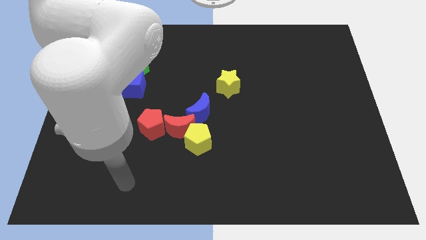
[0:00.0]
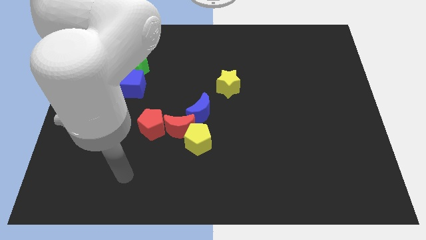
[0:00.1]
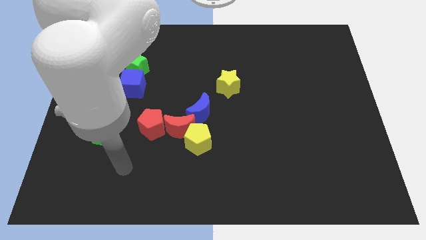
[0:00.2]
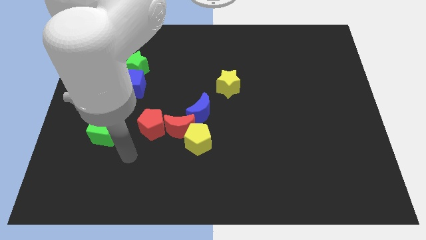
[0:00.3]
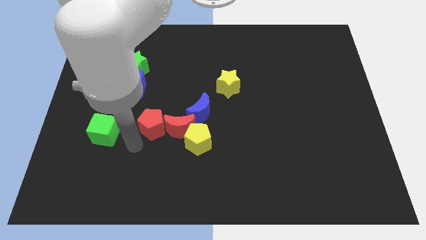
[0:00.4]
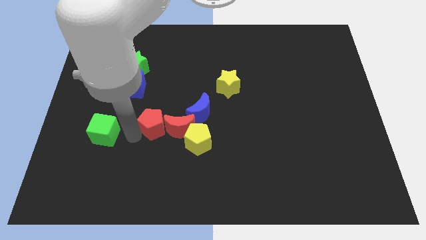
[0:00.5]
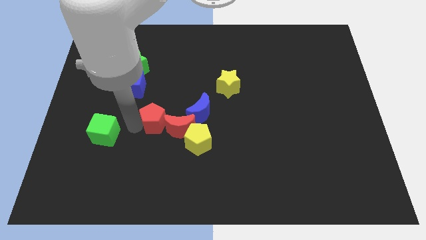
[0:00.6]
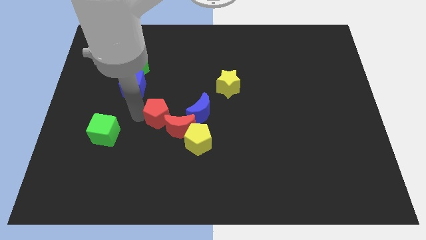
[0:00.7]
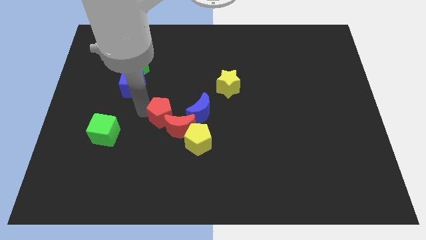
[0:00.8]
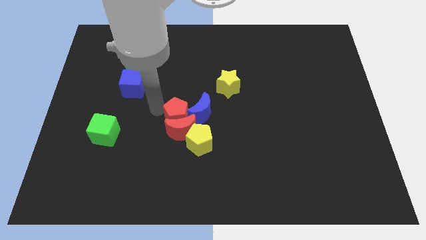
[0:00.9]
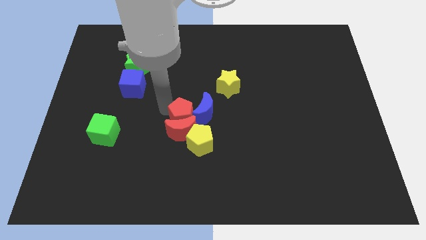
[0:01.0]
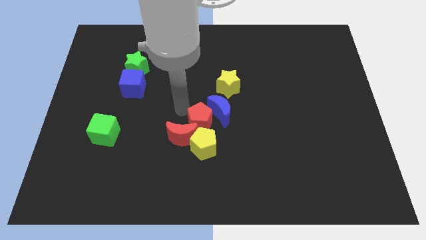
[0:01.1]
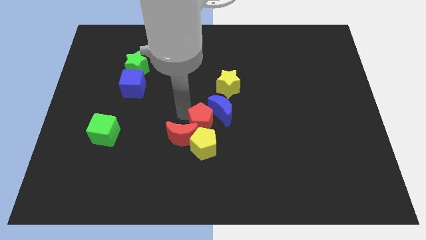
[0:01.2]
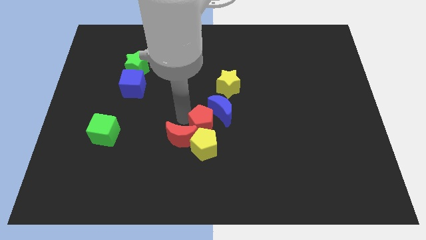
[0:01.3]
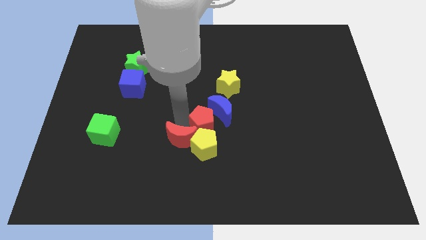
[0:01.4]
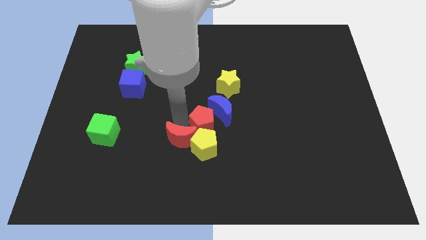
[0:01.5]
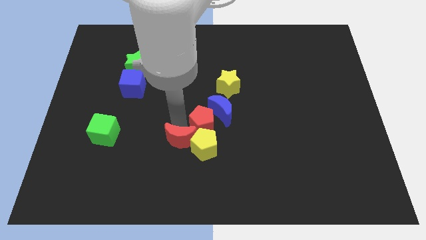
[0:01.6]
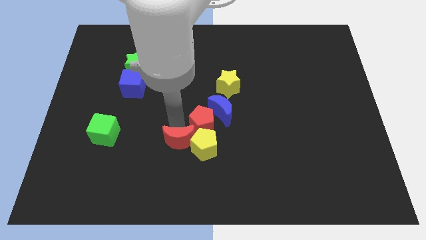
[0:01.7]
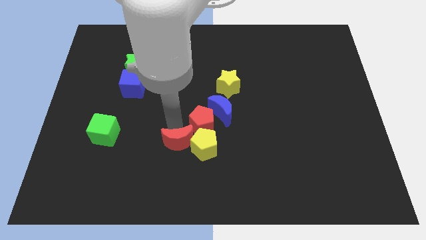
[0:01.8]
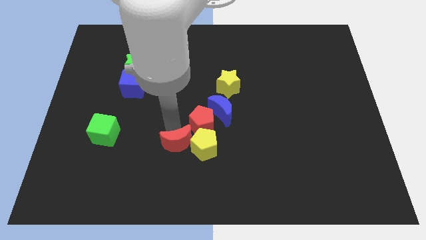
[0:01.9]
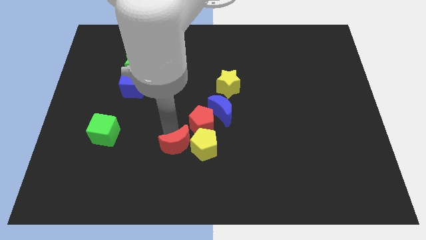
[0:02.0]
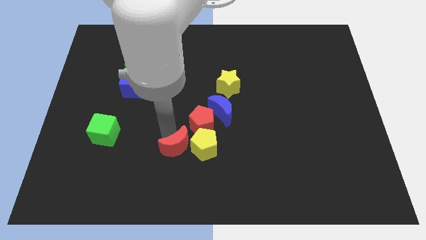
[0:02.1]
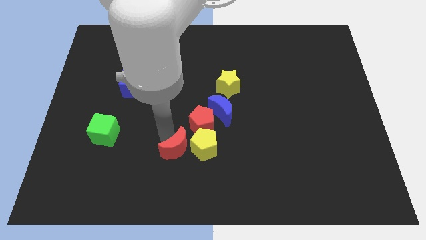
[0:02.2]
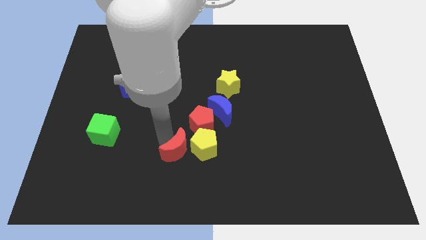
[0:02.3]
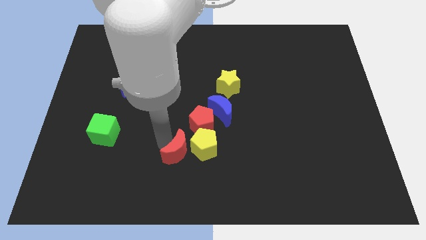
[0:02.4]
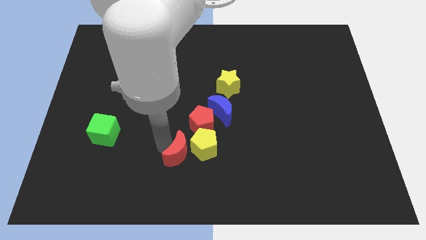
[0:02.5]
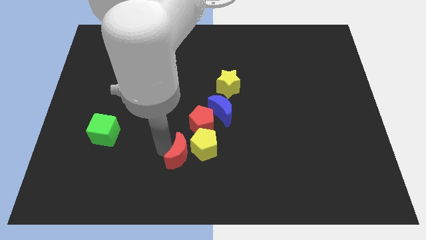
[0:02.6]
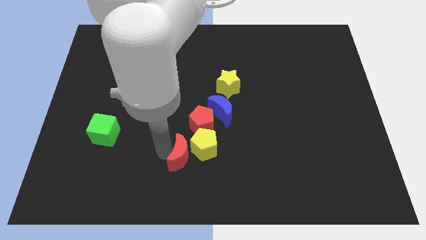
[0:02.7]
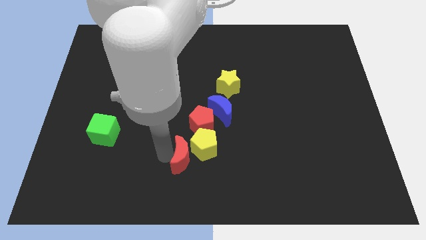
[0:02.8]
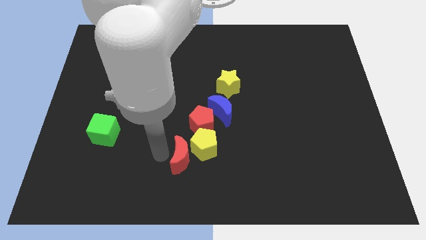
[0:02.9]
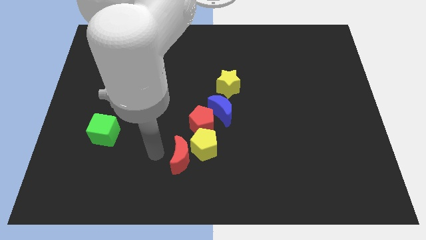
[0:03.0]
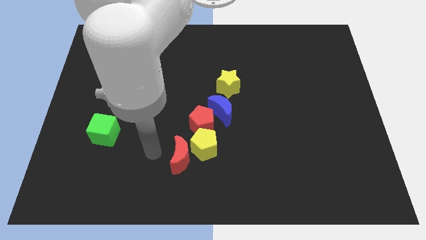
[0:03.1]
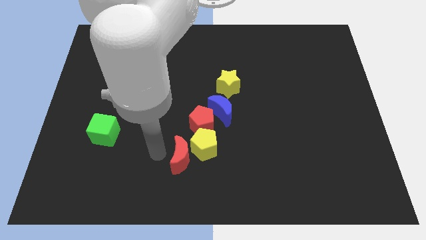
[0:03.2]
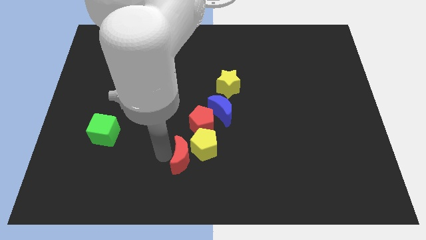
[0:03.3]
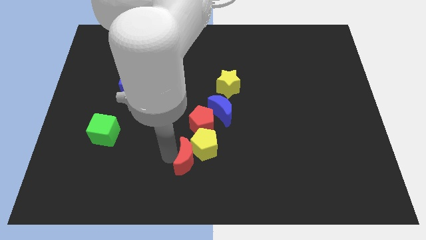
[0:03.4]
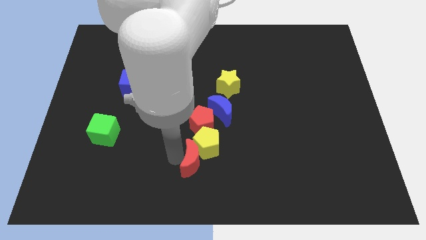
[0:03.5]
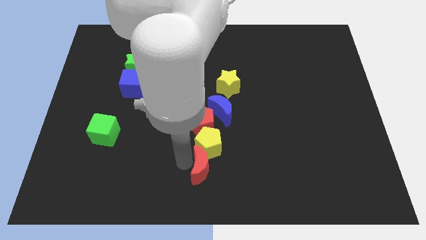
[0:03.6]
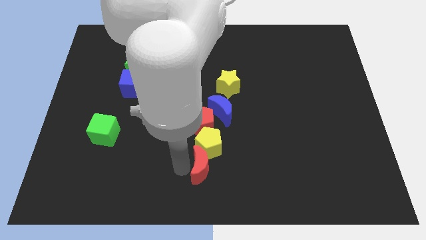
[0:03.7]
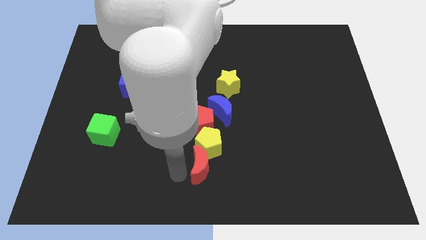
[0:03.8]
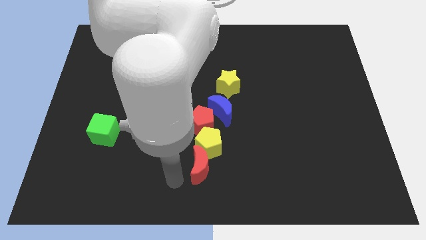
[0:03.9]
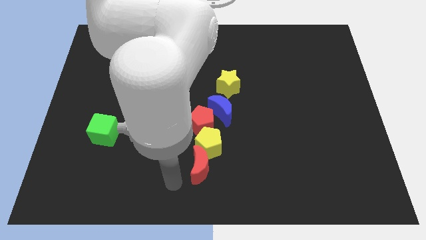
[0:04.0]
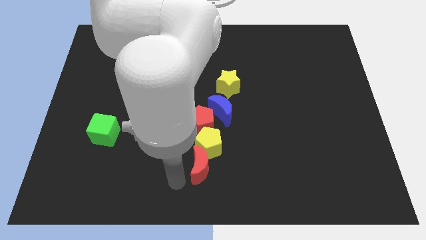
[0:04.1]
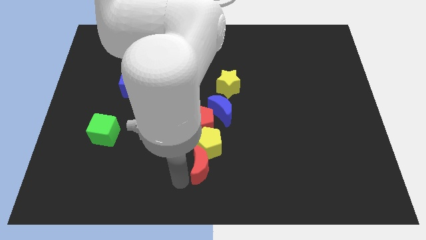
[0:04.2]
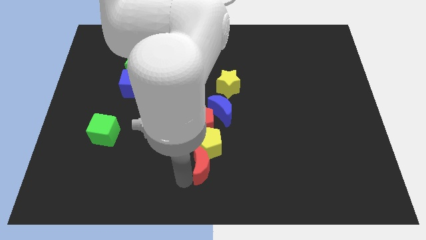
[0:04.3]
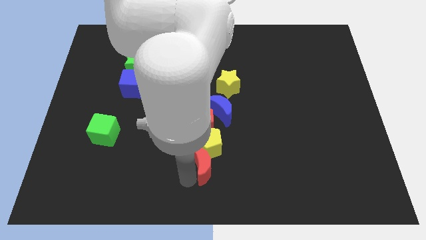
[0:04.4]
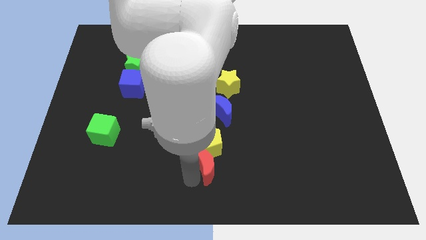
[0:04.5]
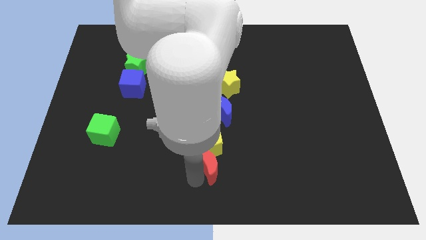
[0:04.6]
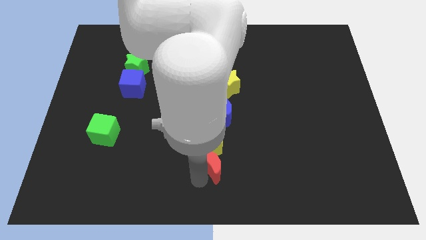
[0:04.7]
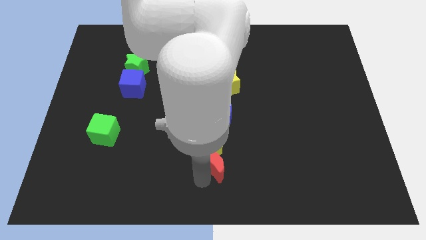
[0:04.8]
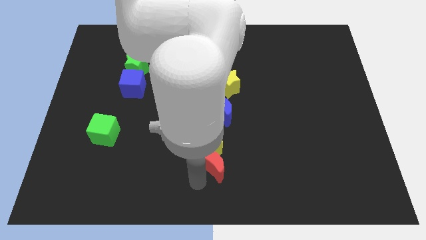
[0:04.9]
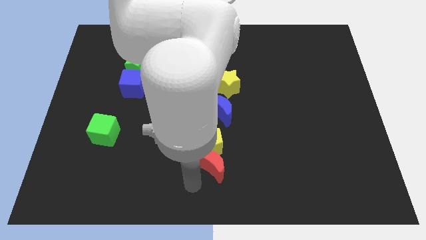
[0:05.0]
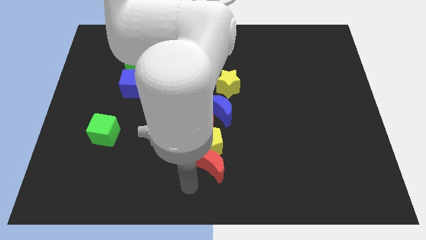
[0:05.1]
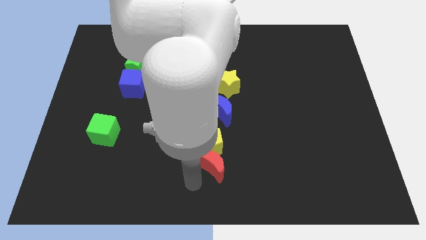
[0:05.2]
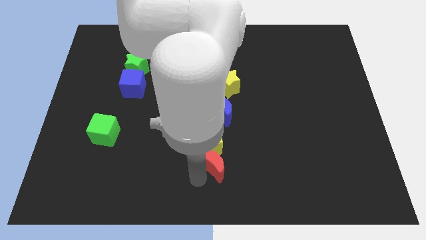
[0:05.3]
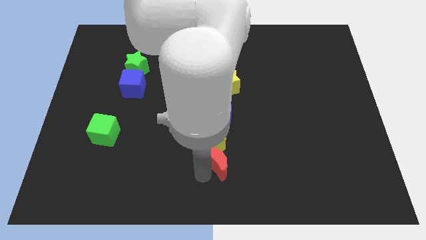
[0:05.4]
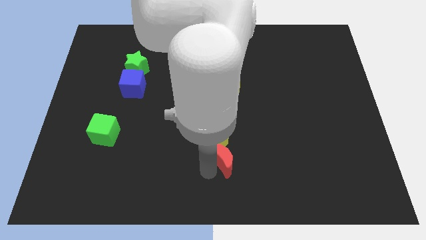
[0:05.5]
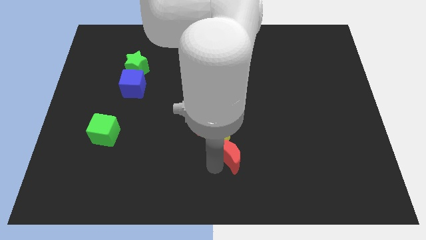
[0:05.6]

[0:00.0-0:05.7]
slightly push the red moon to the right

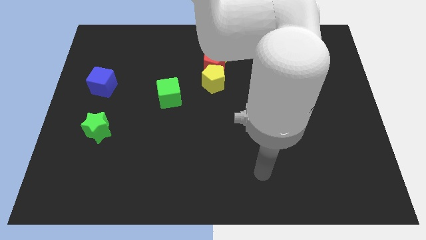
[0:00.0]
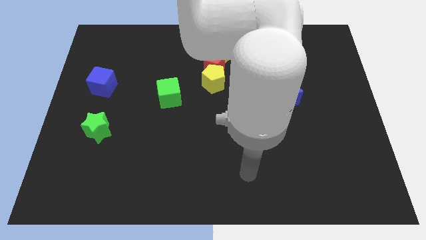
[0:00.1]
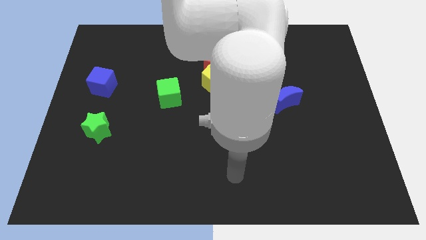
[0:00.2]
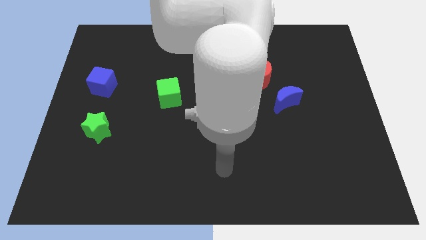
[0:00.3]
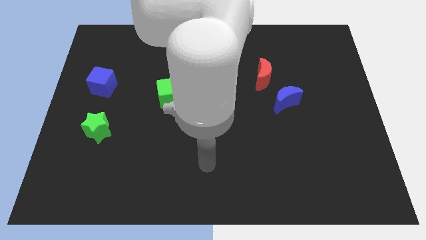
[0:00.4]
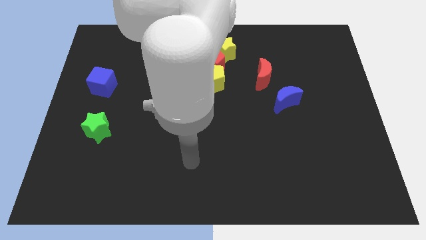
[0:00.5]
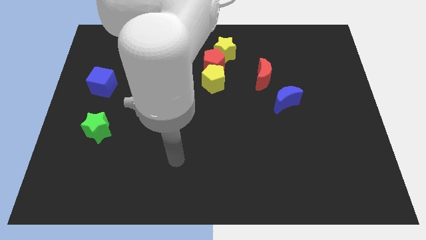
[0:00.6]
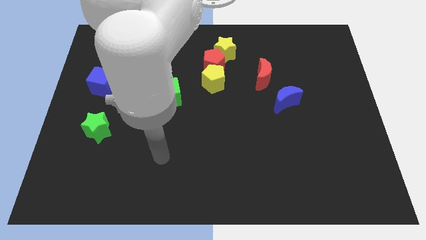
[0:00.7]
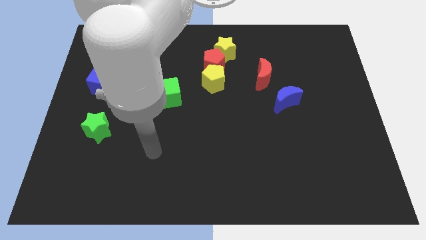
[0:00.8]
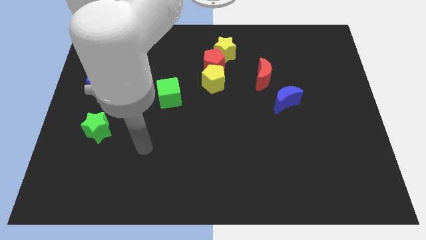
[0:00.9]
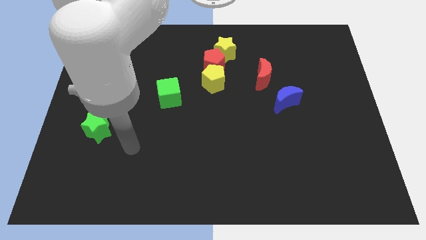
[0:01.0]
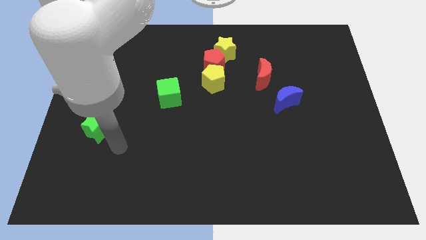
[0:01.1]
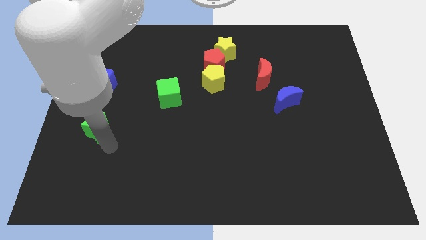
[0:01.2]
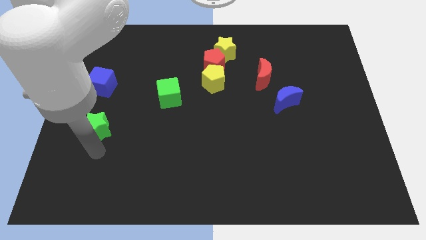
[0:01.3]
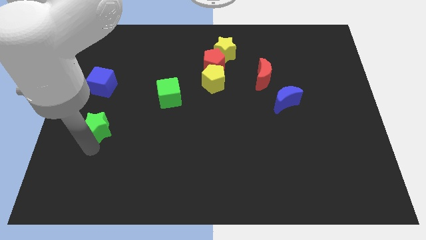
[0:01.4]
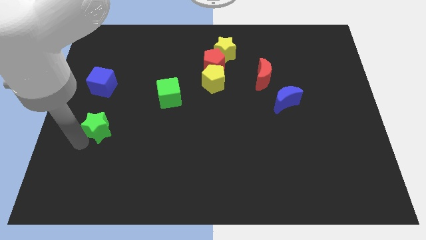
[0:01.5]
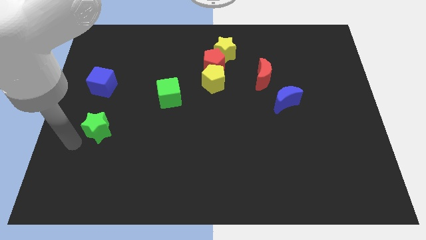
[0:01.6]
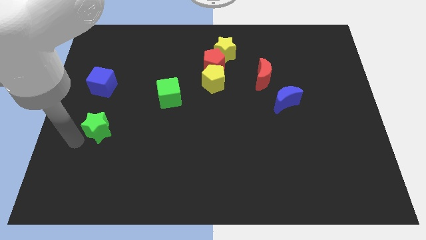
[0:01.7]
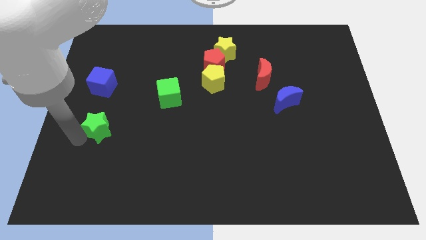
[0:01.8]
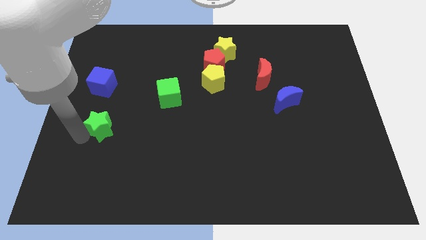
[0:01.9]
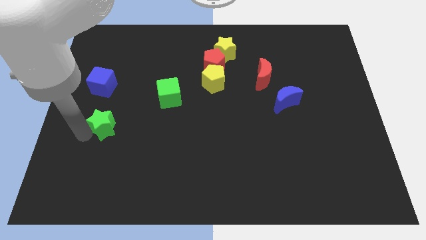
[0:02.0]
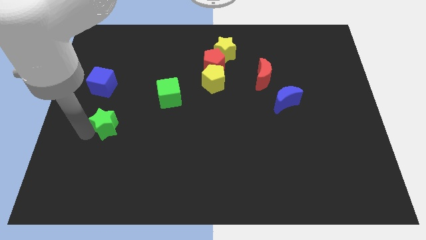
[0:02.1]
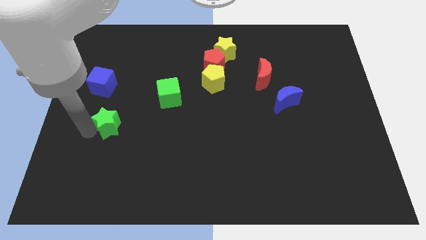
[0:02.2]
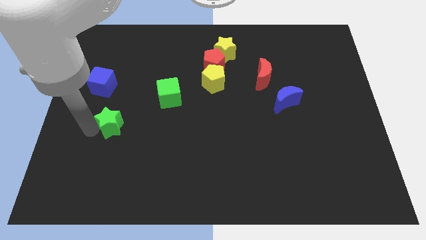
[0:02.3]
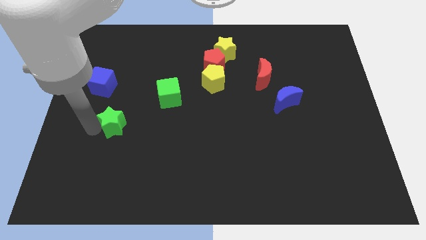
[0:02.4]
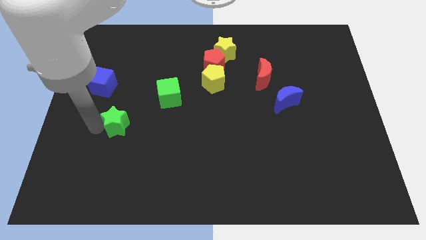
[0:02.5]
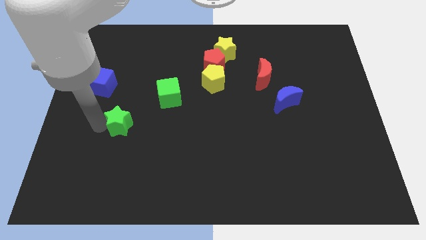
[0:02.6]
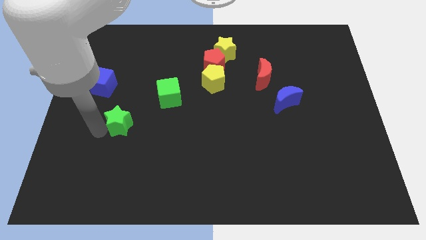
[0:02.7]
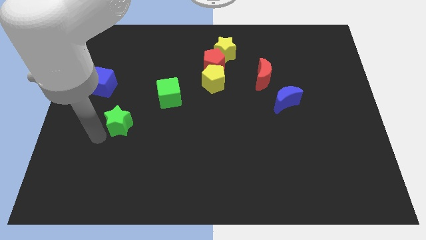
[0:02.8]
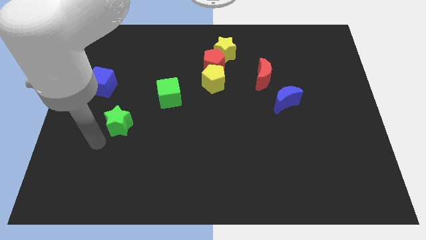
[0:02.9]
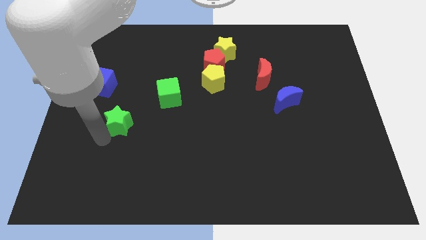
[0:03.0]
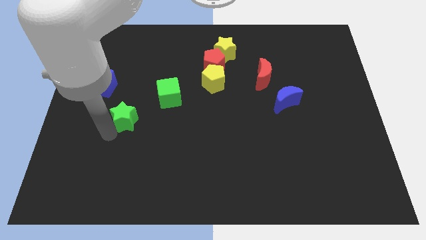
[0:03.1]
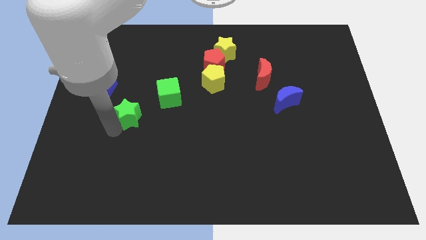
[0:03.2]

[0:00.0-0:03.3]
move the green star slightly up and right diagonally
